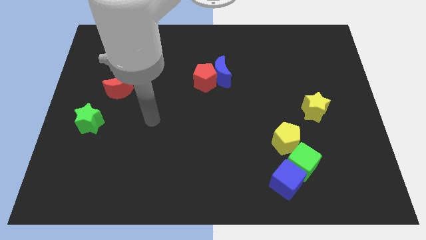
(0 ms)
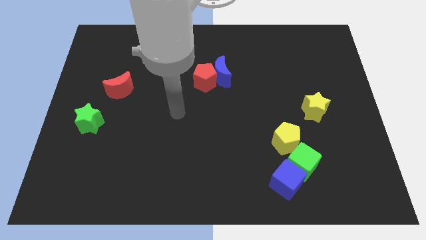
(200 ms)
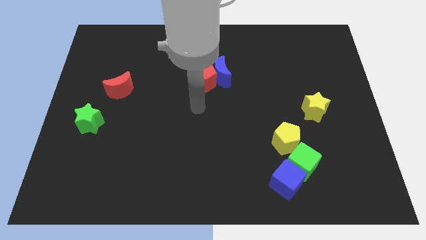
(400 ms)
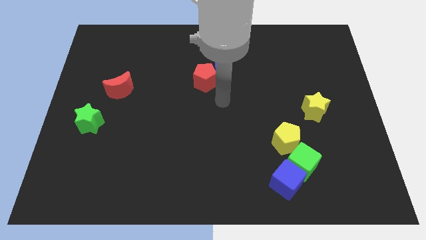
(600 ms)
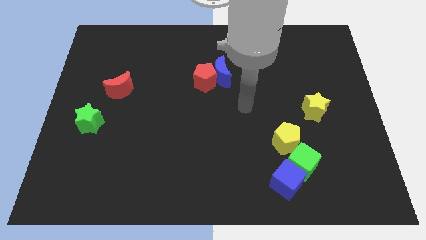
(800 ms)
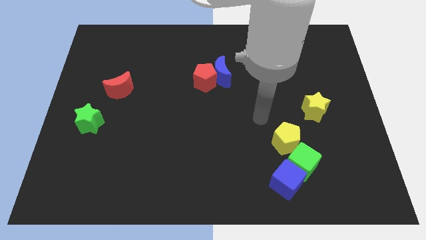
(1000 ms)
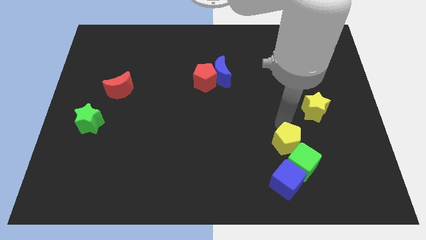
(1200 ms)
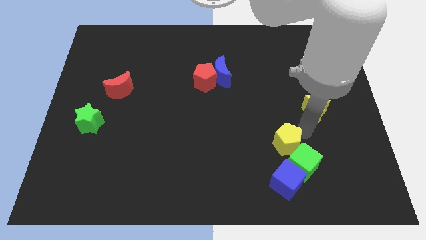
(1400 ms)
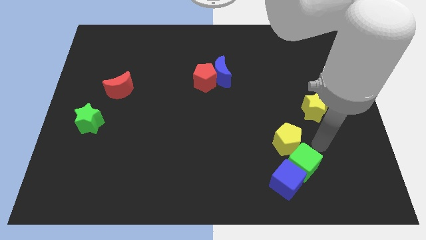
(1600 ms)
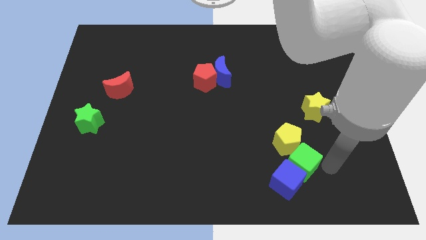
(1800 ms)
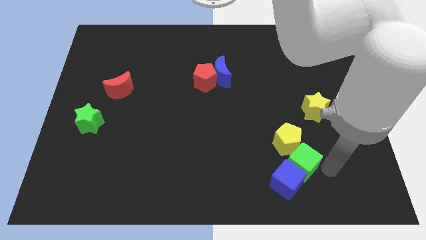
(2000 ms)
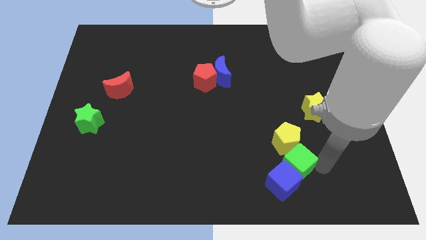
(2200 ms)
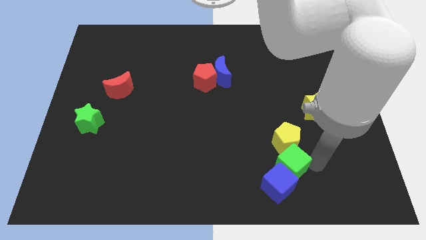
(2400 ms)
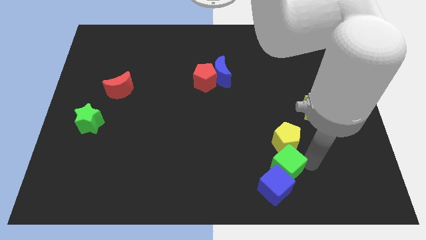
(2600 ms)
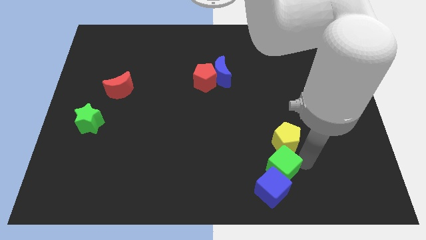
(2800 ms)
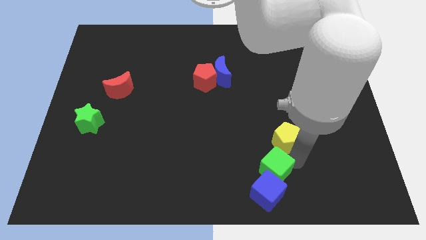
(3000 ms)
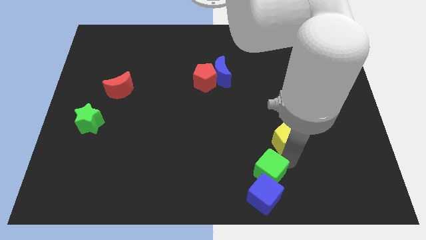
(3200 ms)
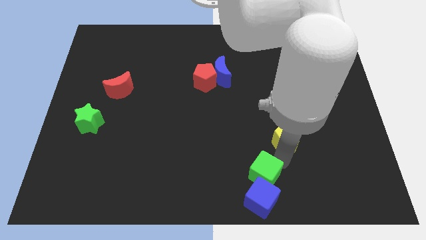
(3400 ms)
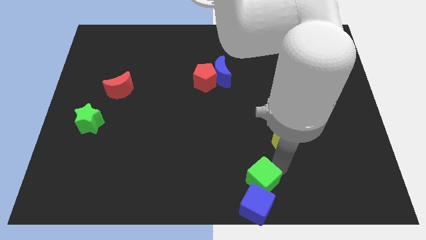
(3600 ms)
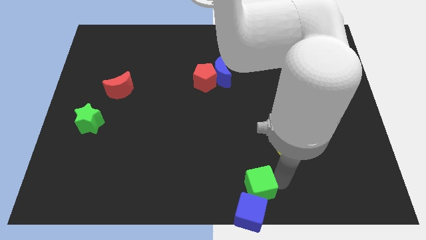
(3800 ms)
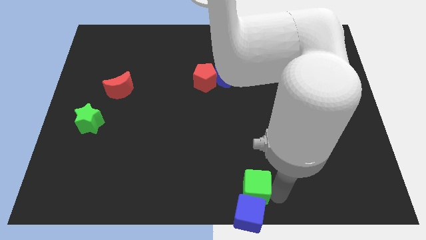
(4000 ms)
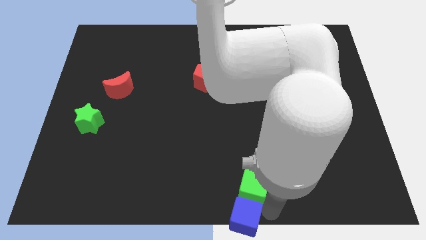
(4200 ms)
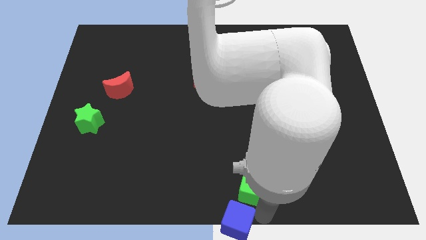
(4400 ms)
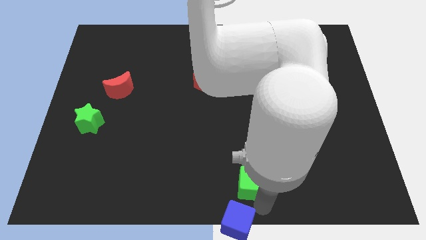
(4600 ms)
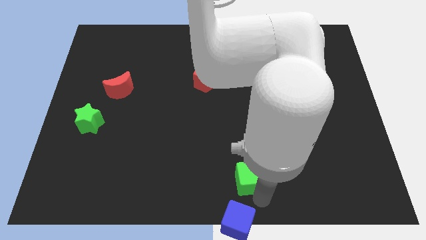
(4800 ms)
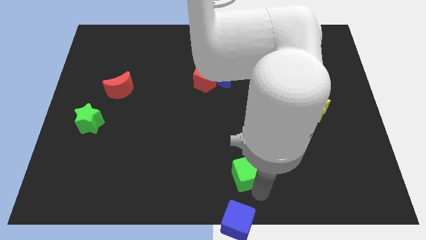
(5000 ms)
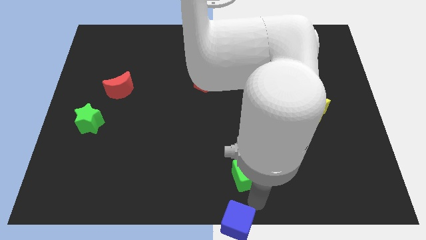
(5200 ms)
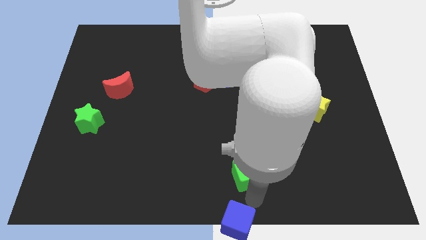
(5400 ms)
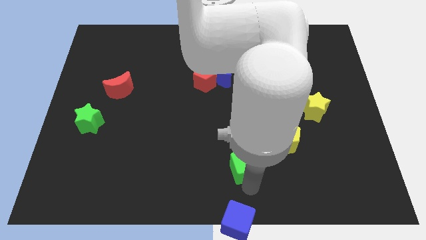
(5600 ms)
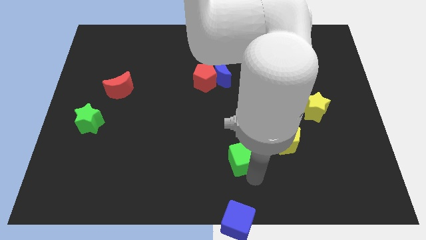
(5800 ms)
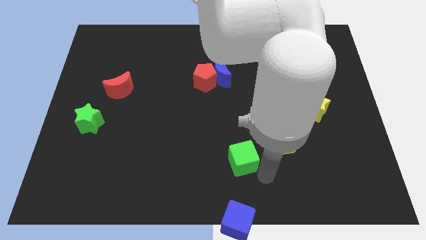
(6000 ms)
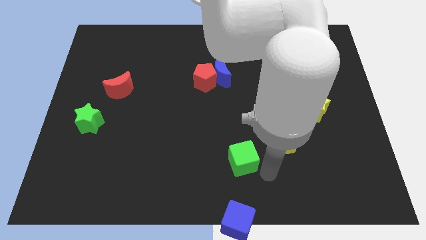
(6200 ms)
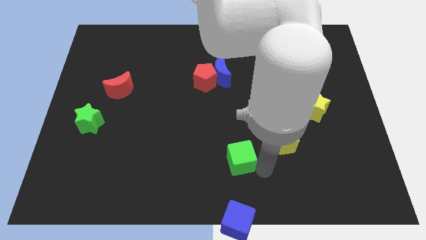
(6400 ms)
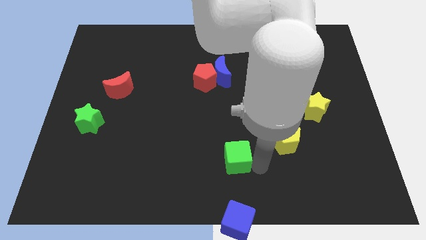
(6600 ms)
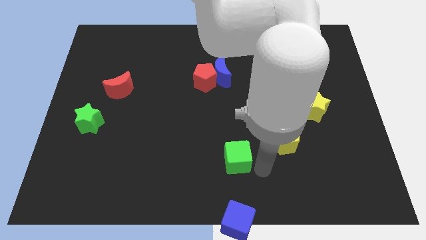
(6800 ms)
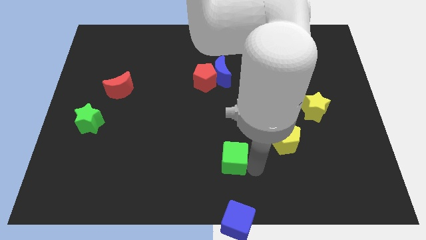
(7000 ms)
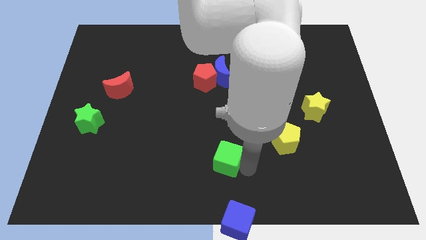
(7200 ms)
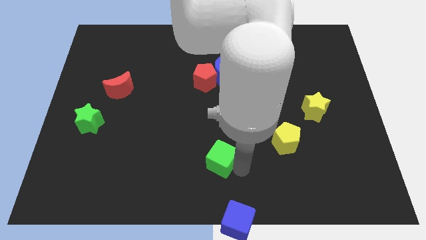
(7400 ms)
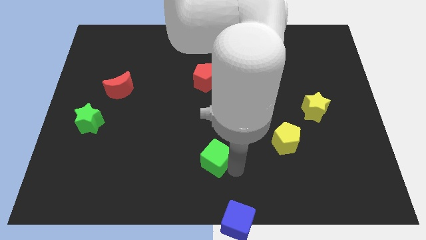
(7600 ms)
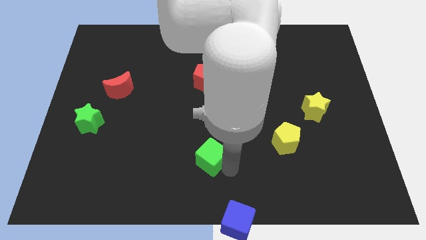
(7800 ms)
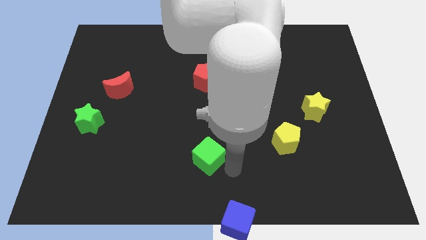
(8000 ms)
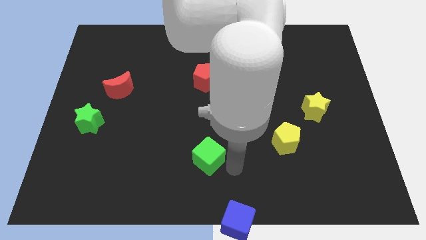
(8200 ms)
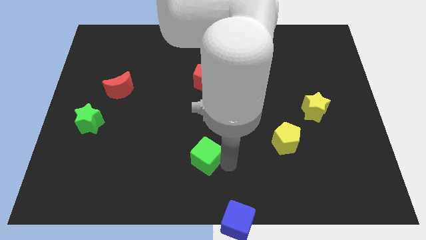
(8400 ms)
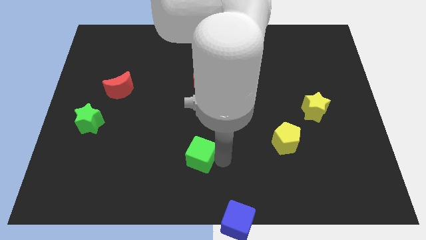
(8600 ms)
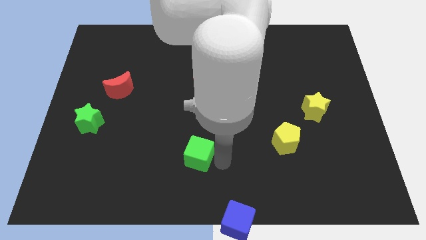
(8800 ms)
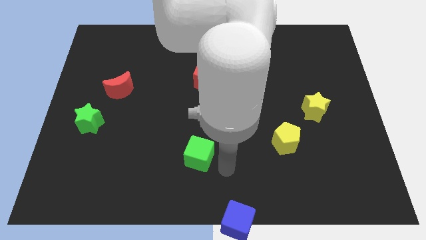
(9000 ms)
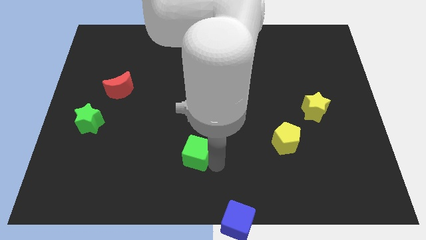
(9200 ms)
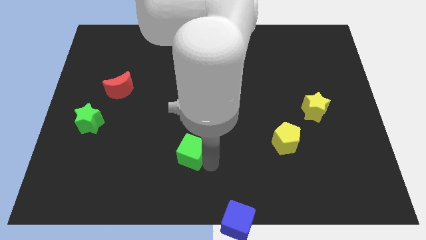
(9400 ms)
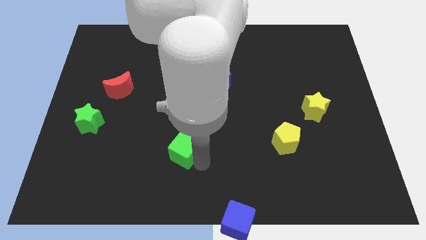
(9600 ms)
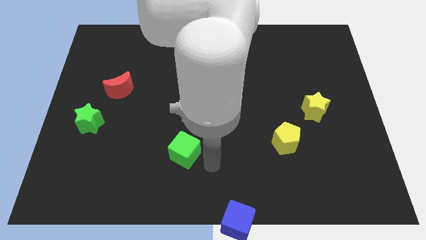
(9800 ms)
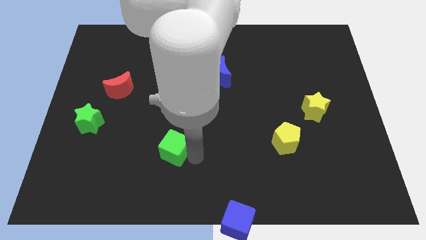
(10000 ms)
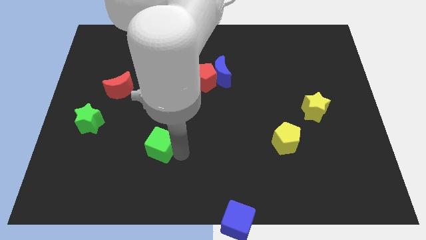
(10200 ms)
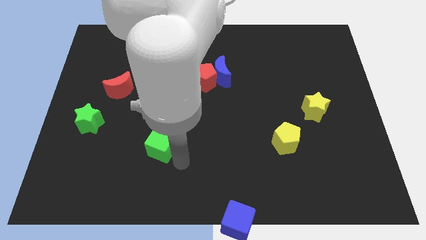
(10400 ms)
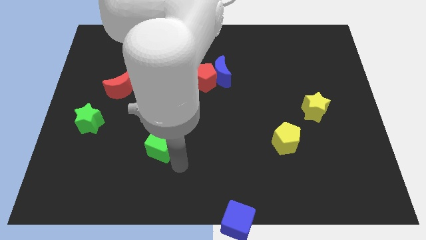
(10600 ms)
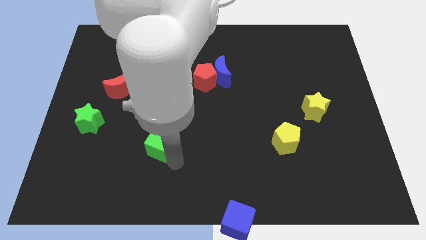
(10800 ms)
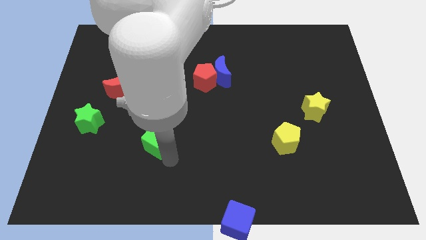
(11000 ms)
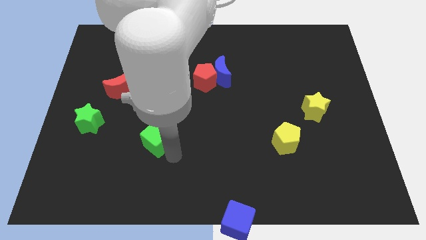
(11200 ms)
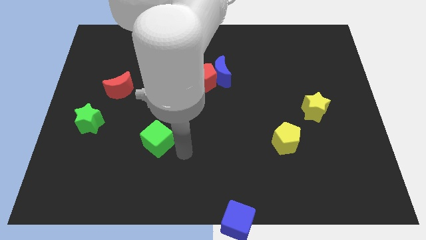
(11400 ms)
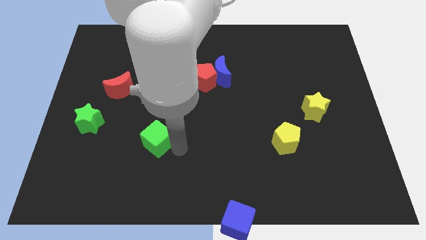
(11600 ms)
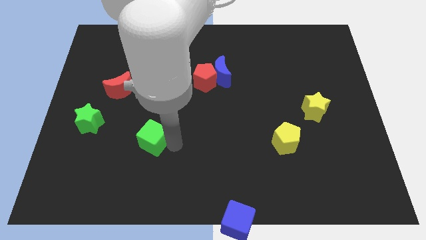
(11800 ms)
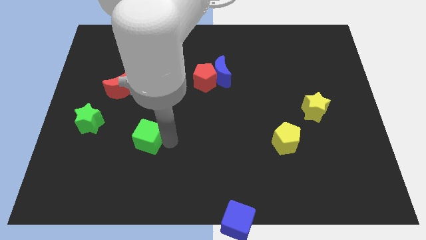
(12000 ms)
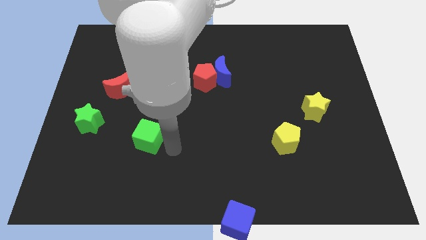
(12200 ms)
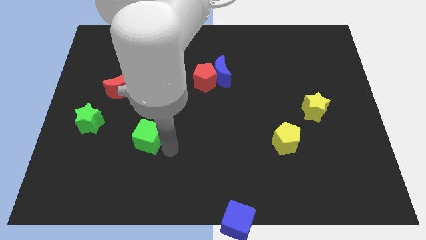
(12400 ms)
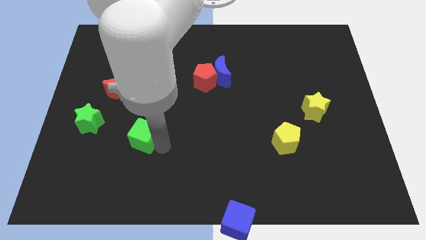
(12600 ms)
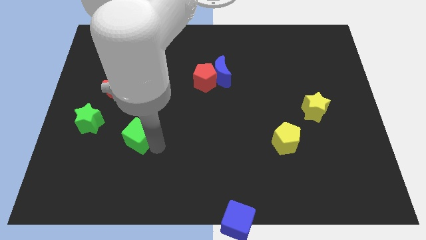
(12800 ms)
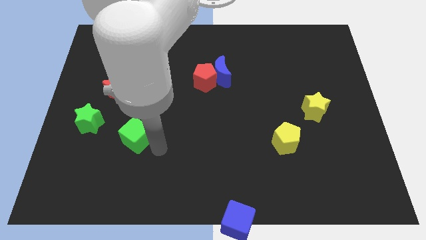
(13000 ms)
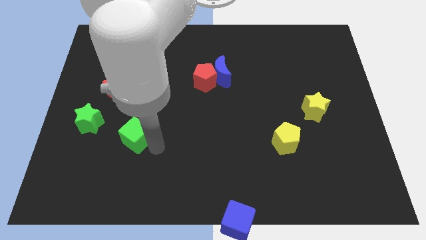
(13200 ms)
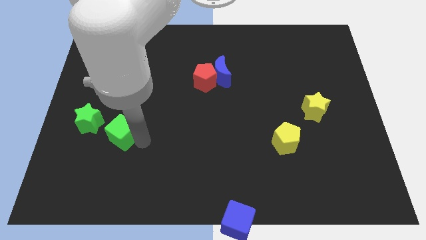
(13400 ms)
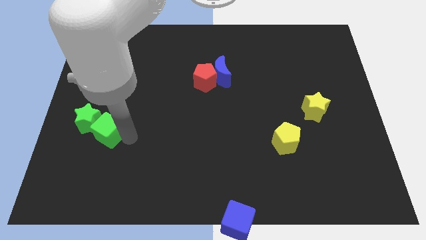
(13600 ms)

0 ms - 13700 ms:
slide the green cube to the green star

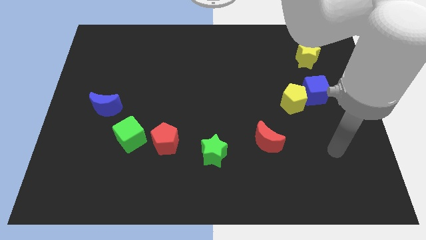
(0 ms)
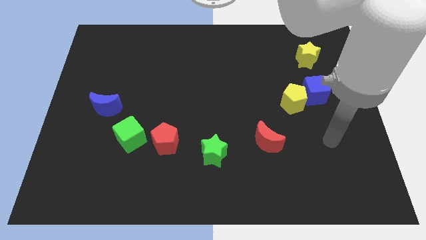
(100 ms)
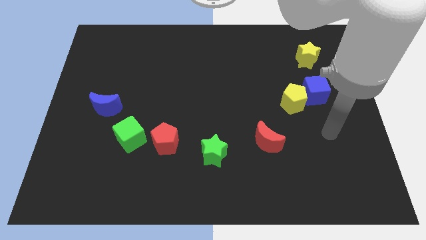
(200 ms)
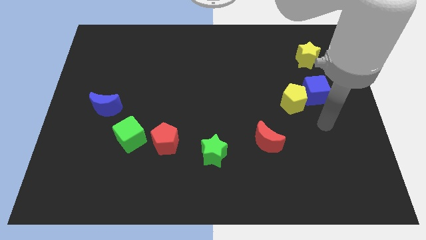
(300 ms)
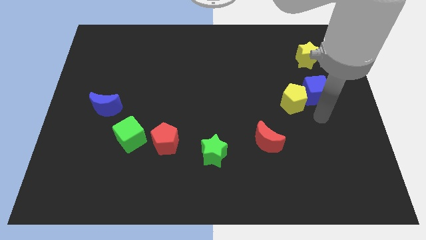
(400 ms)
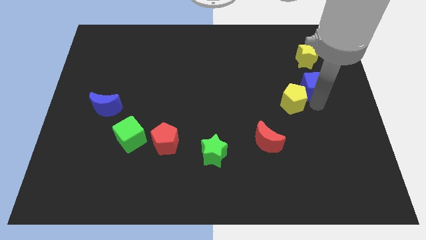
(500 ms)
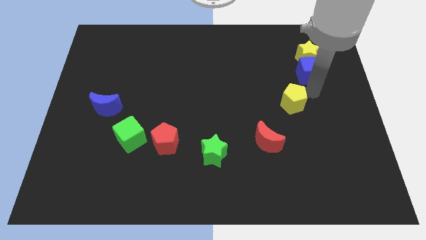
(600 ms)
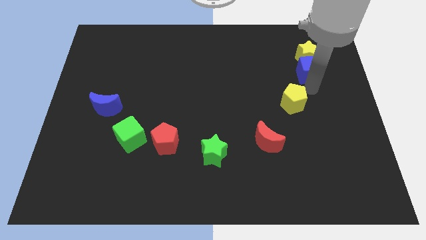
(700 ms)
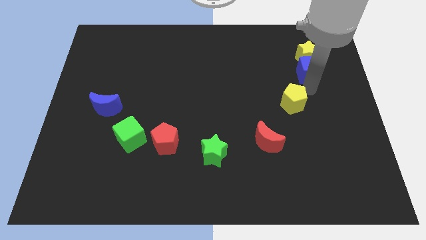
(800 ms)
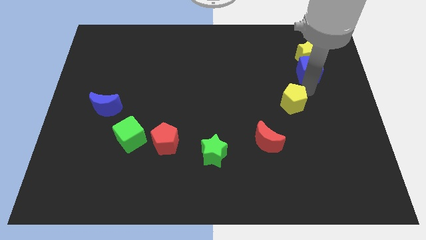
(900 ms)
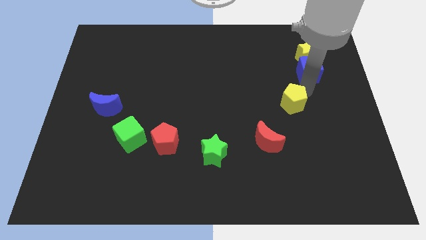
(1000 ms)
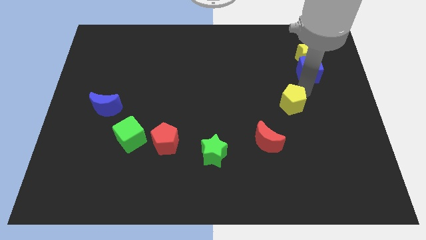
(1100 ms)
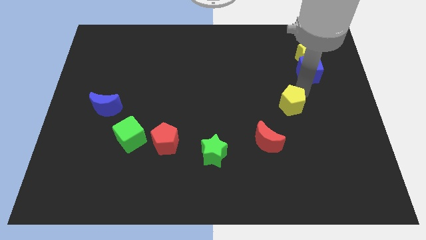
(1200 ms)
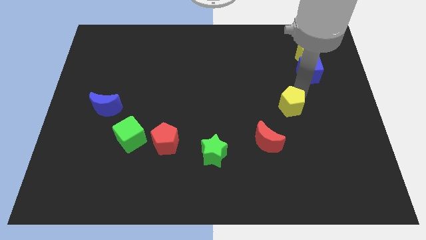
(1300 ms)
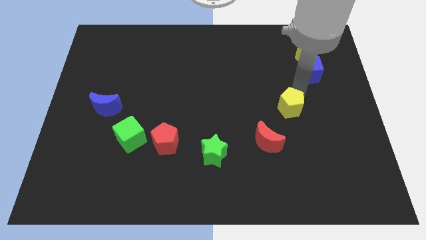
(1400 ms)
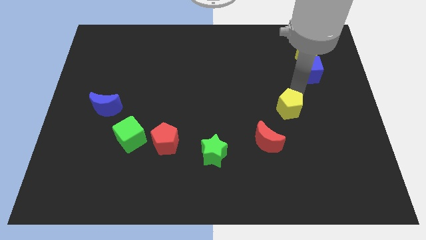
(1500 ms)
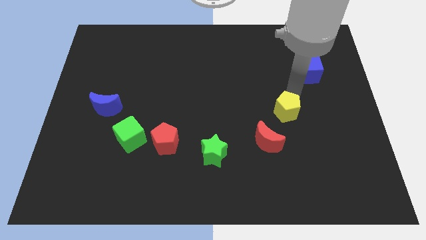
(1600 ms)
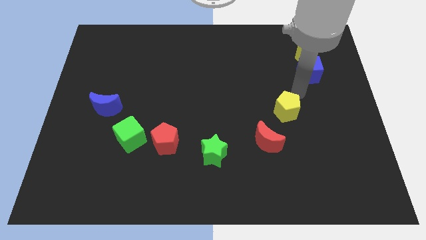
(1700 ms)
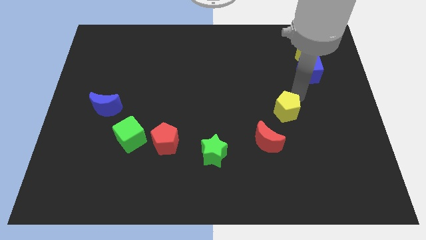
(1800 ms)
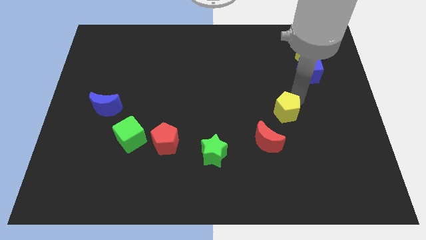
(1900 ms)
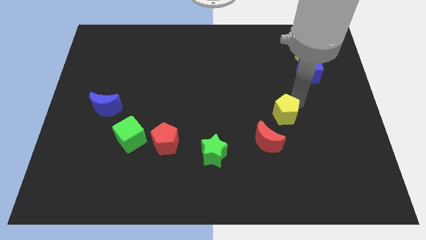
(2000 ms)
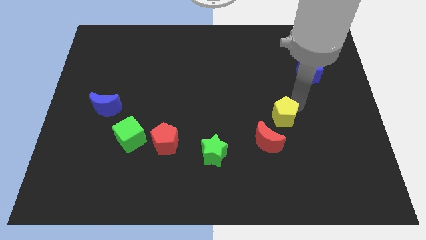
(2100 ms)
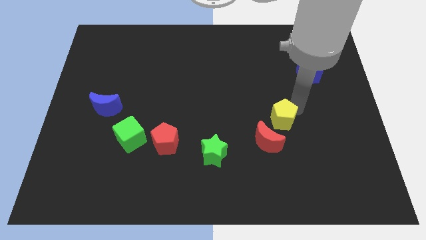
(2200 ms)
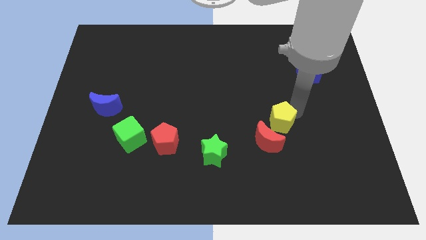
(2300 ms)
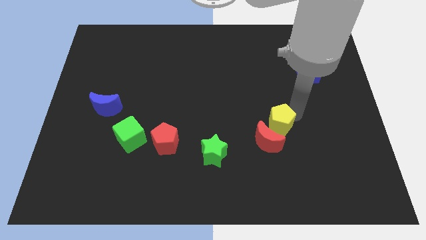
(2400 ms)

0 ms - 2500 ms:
move the yellow pentagon close to the red moon
